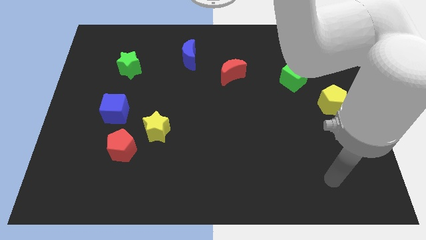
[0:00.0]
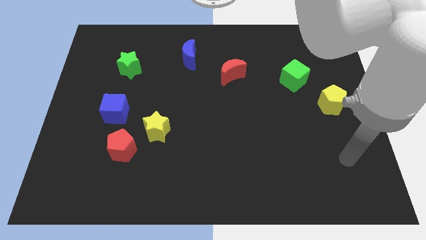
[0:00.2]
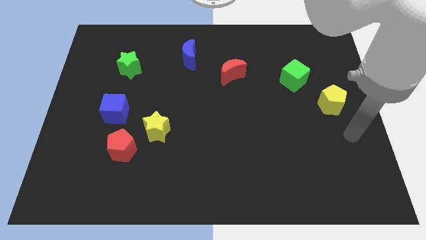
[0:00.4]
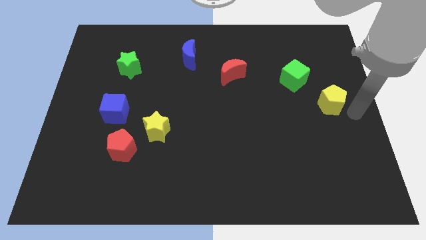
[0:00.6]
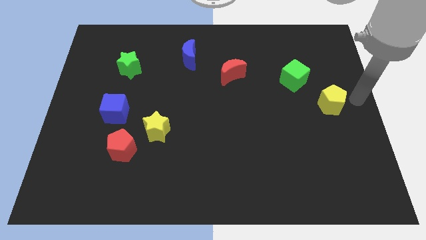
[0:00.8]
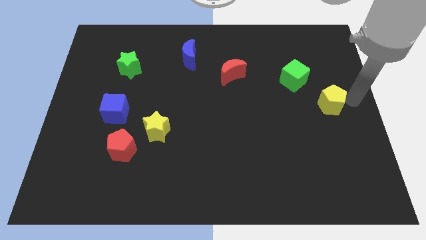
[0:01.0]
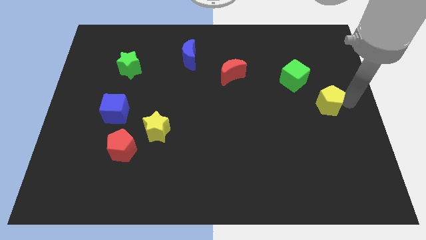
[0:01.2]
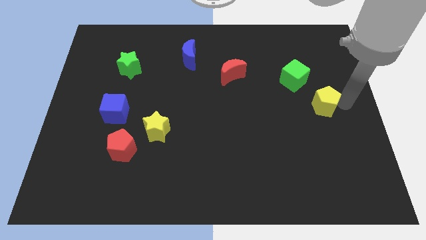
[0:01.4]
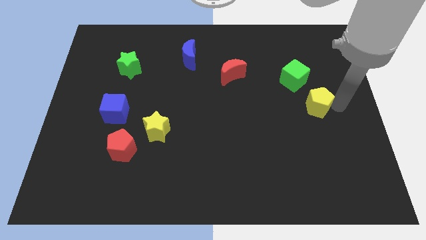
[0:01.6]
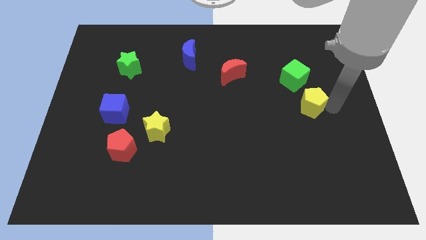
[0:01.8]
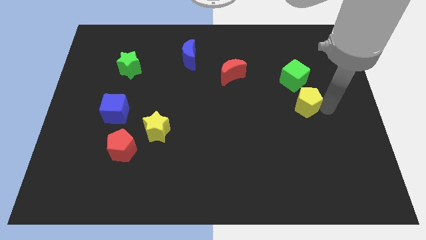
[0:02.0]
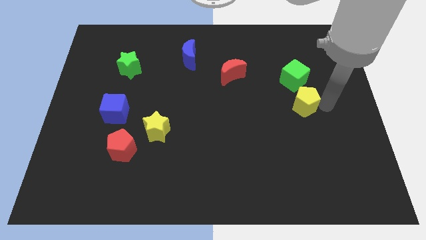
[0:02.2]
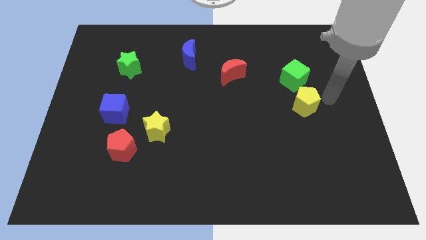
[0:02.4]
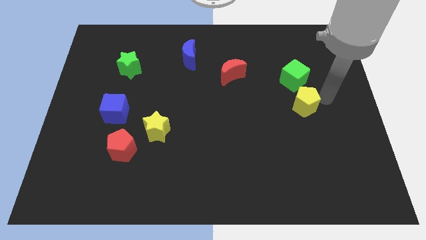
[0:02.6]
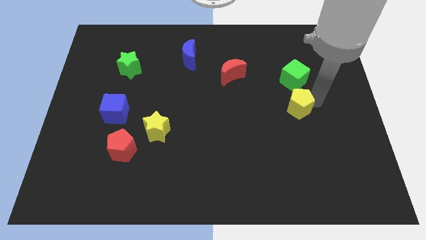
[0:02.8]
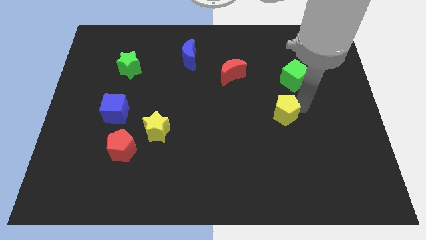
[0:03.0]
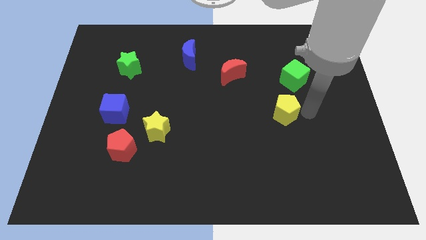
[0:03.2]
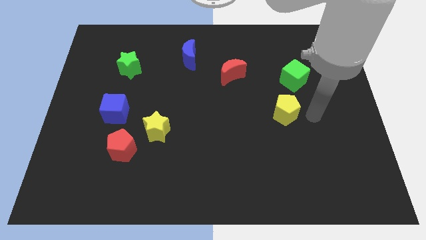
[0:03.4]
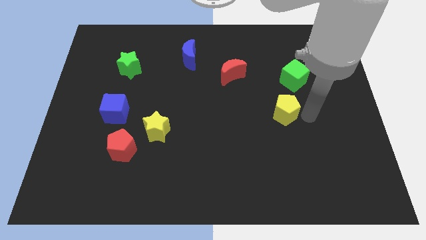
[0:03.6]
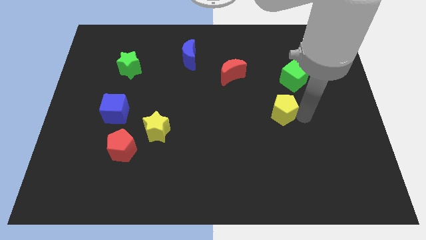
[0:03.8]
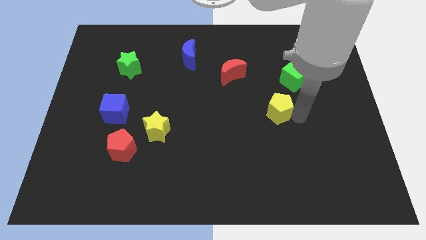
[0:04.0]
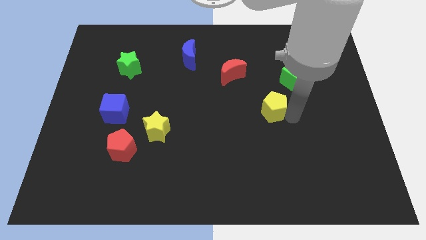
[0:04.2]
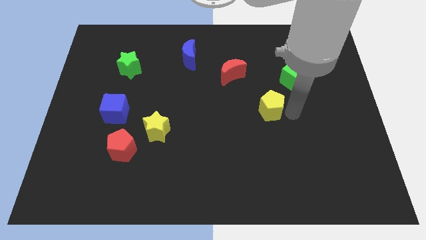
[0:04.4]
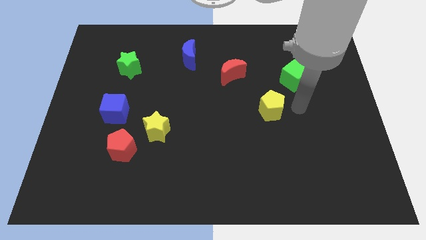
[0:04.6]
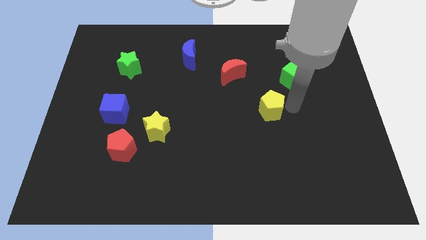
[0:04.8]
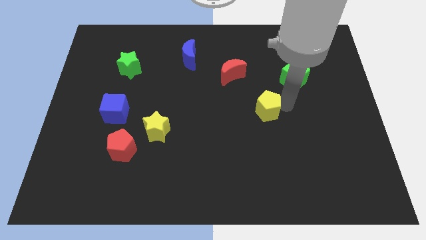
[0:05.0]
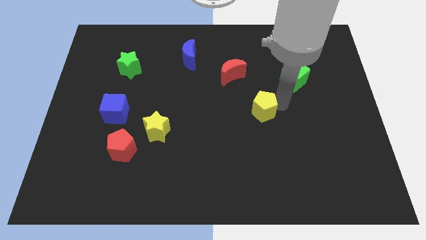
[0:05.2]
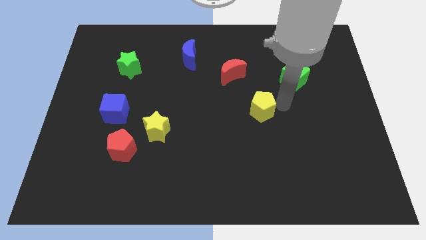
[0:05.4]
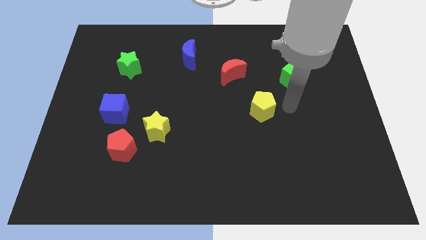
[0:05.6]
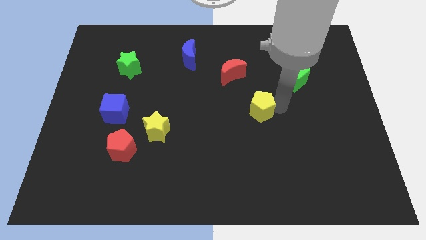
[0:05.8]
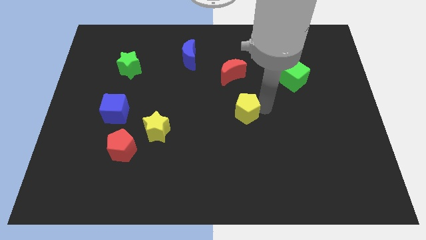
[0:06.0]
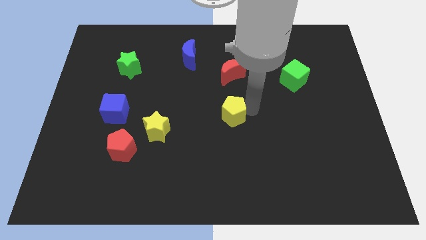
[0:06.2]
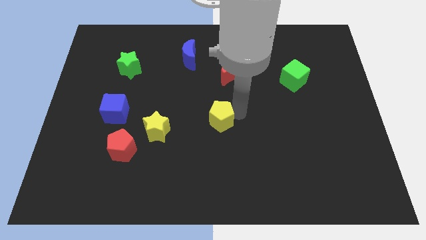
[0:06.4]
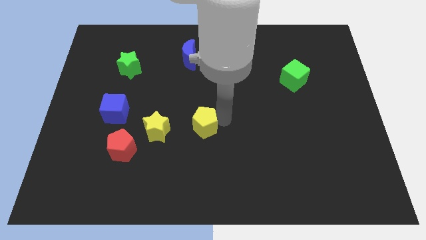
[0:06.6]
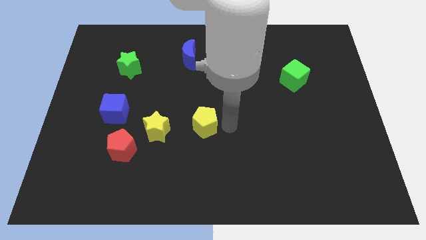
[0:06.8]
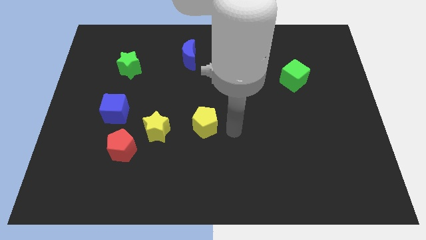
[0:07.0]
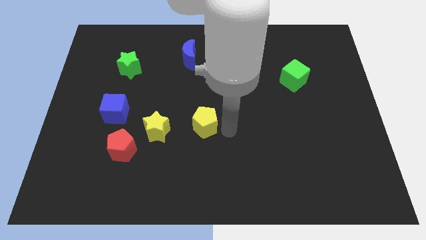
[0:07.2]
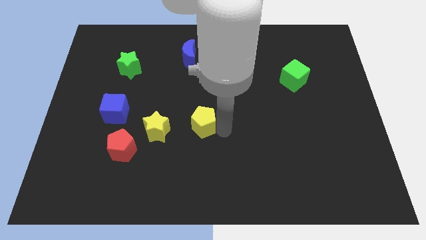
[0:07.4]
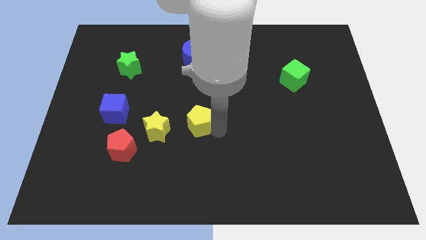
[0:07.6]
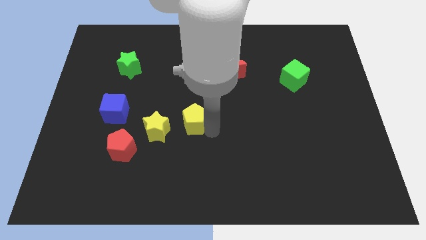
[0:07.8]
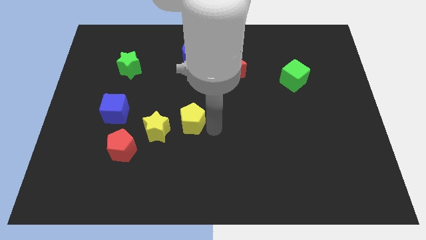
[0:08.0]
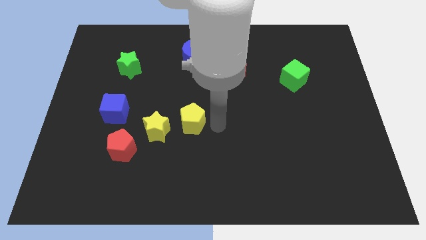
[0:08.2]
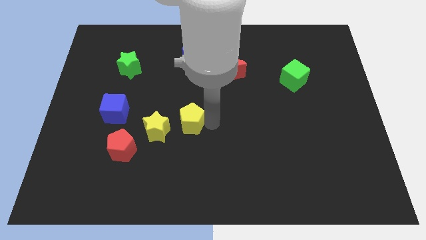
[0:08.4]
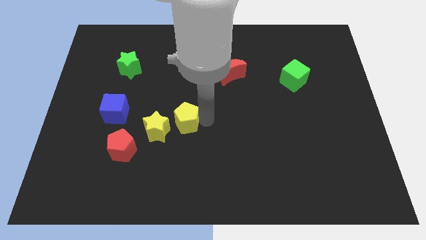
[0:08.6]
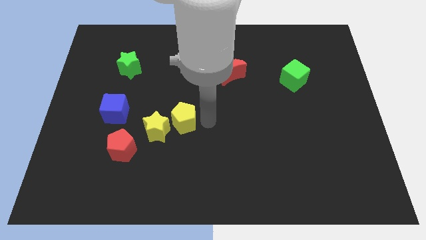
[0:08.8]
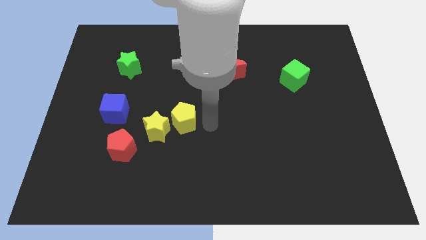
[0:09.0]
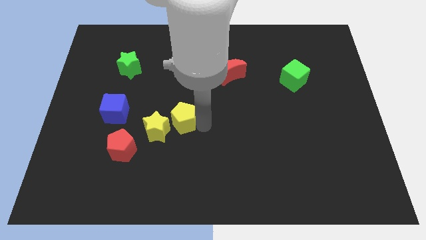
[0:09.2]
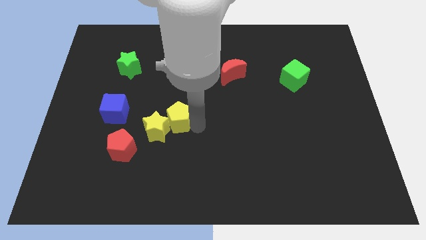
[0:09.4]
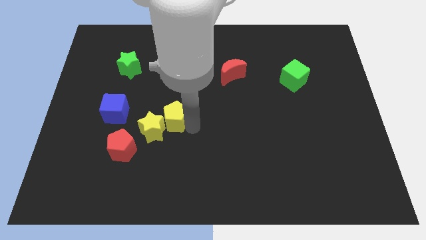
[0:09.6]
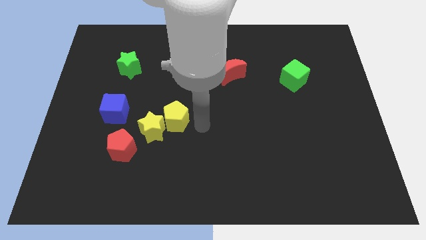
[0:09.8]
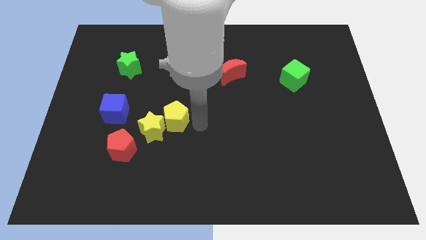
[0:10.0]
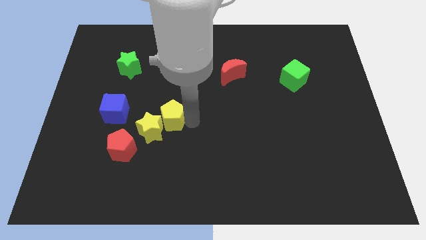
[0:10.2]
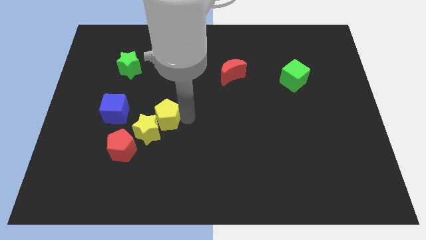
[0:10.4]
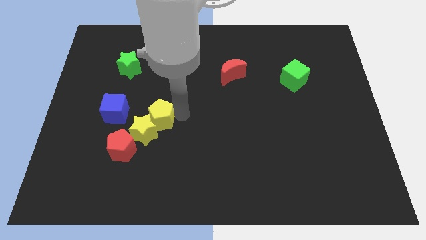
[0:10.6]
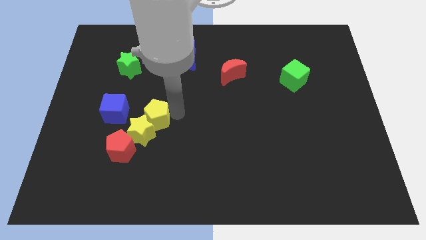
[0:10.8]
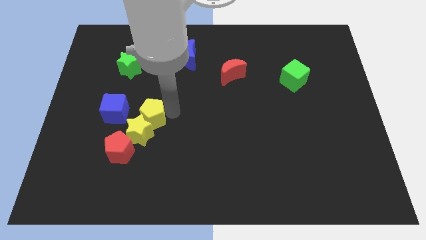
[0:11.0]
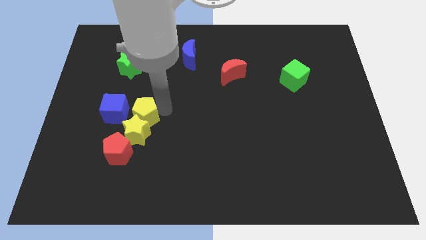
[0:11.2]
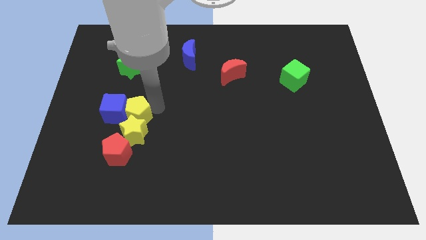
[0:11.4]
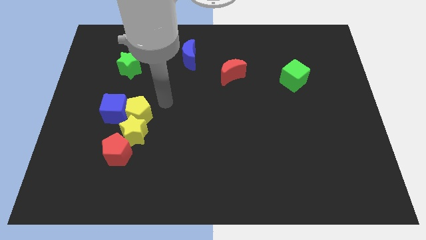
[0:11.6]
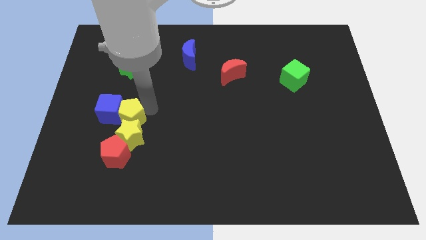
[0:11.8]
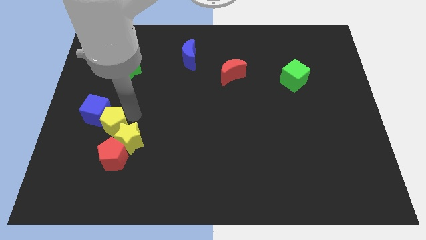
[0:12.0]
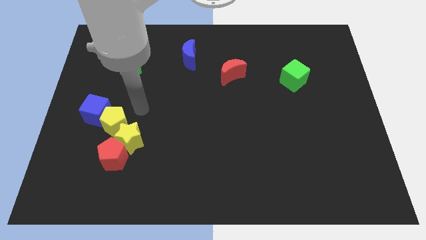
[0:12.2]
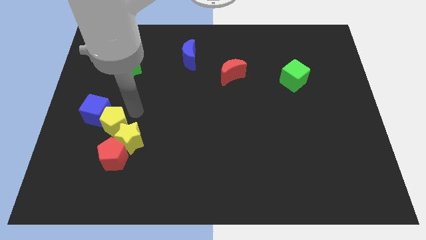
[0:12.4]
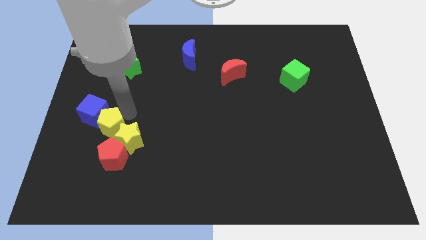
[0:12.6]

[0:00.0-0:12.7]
put the yellow pentagon to the top left side of the red pentagon
